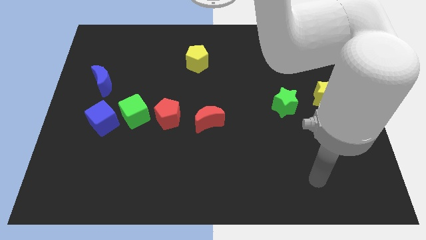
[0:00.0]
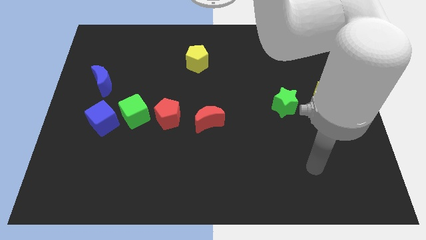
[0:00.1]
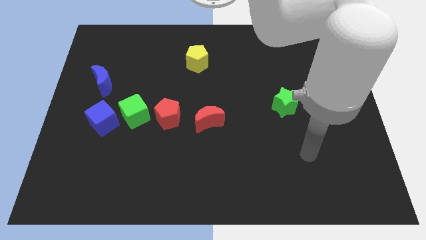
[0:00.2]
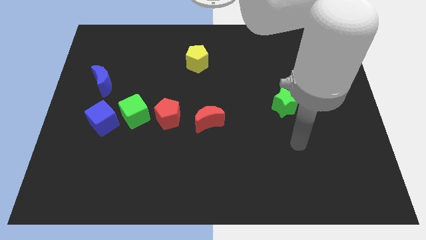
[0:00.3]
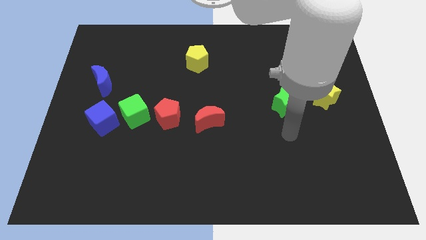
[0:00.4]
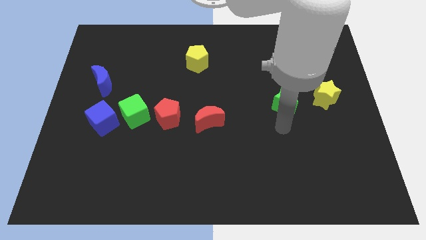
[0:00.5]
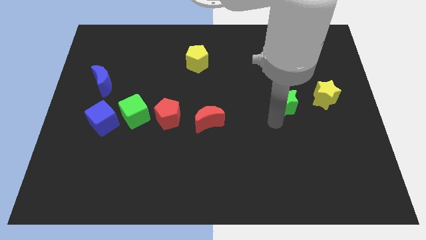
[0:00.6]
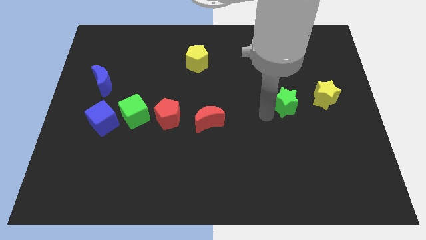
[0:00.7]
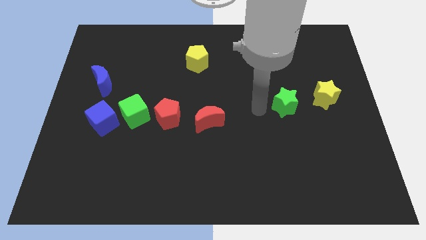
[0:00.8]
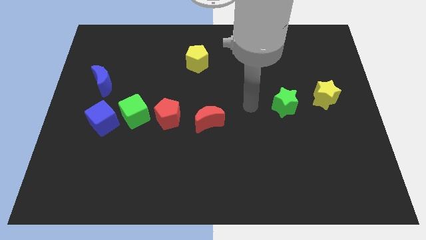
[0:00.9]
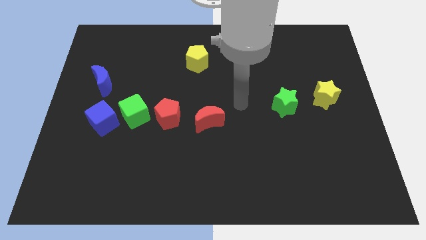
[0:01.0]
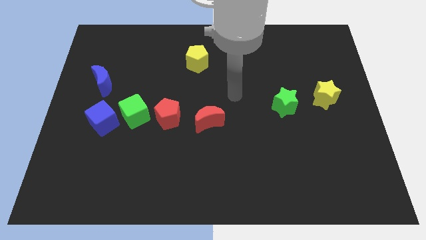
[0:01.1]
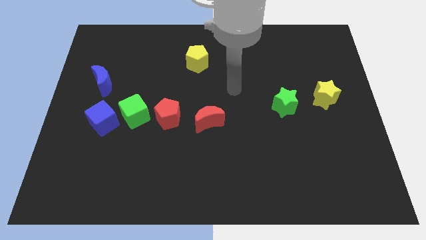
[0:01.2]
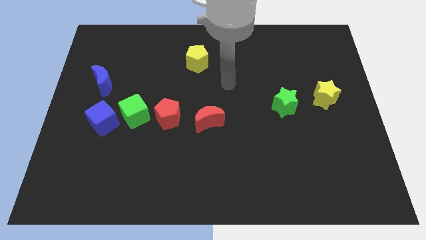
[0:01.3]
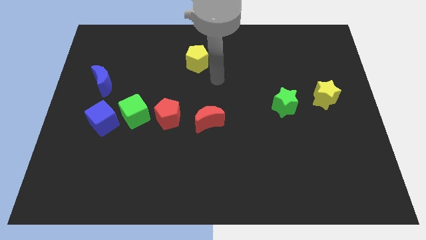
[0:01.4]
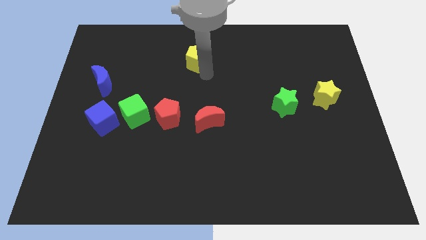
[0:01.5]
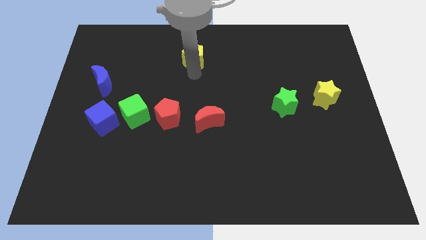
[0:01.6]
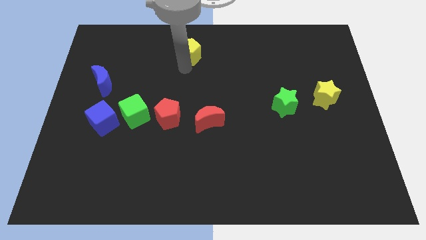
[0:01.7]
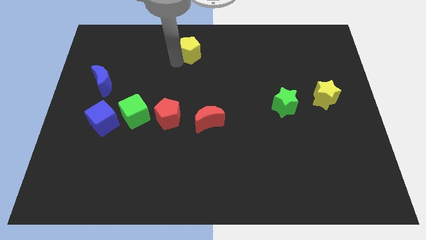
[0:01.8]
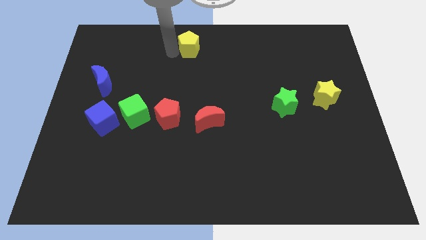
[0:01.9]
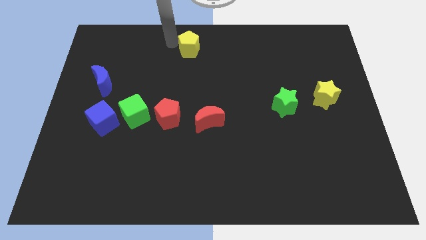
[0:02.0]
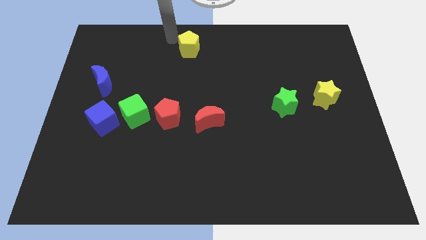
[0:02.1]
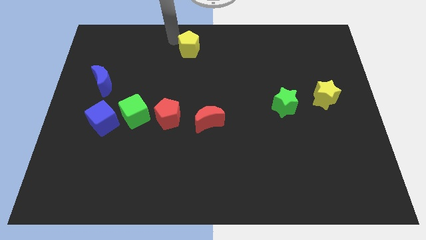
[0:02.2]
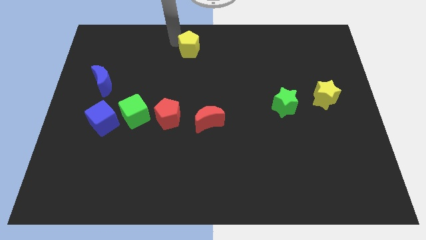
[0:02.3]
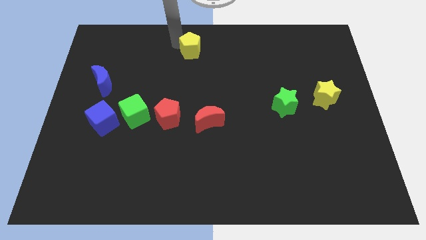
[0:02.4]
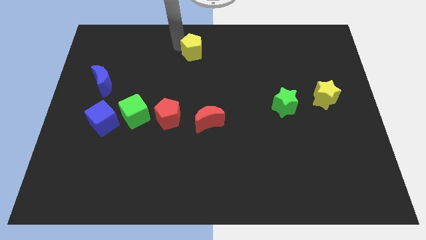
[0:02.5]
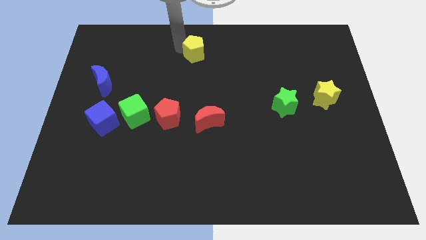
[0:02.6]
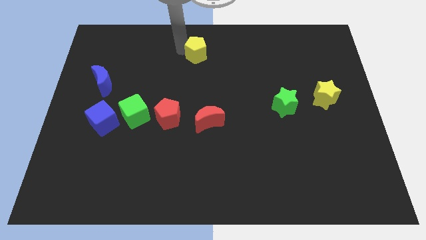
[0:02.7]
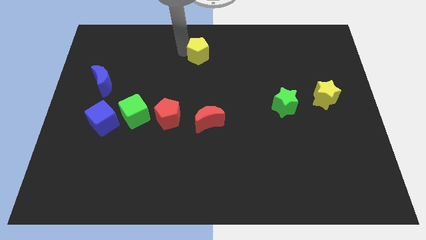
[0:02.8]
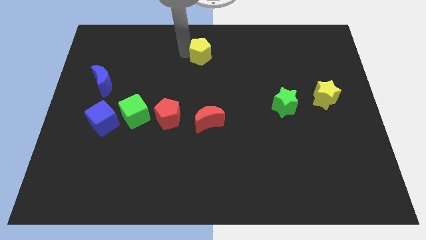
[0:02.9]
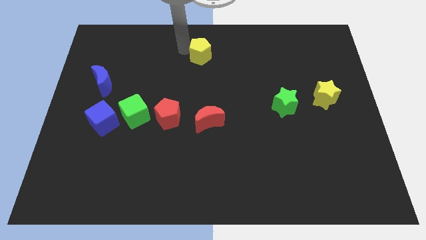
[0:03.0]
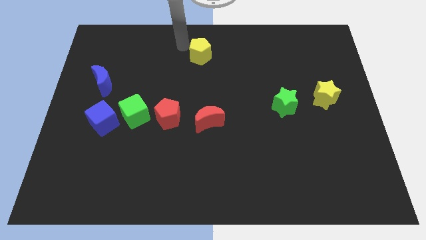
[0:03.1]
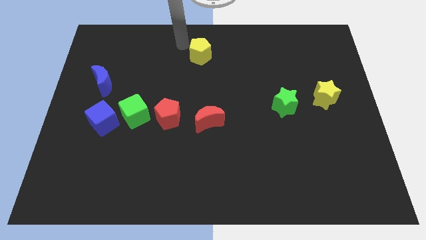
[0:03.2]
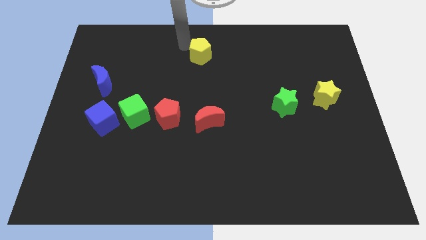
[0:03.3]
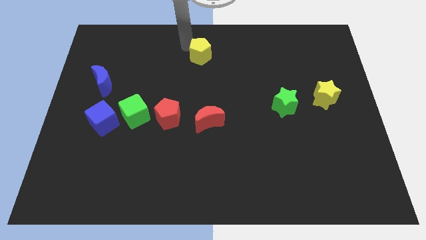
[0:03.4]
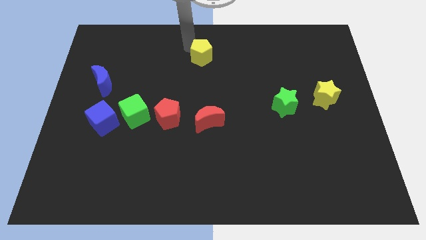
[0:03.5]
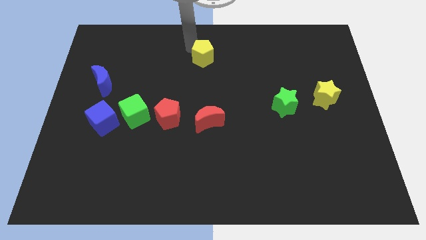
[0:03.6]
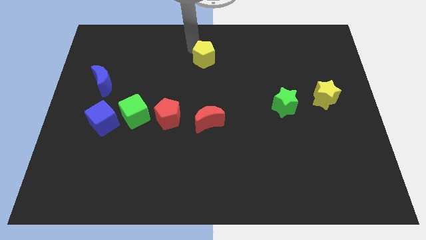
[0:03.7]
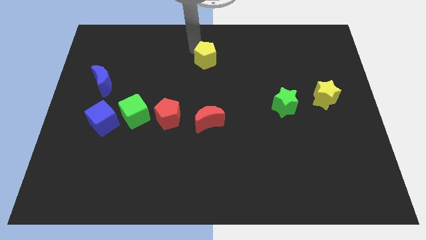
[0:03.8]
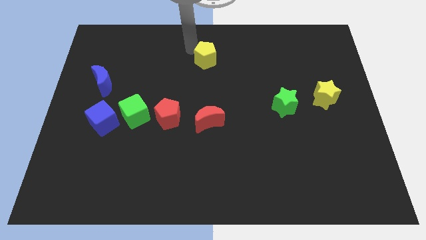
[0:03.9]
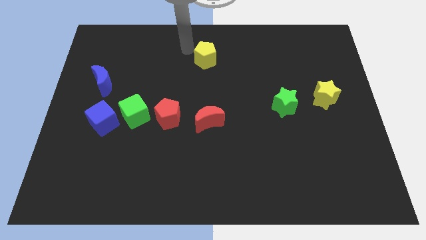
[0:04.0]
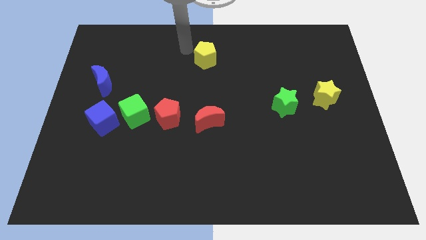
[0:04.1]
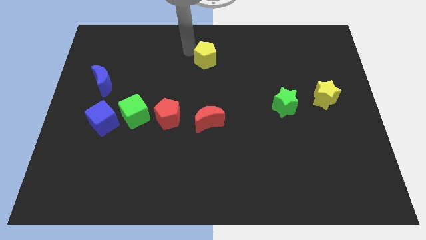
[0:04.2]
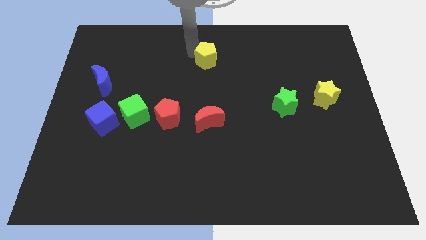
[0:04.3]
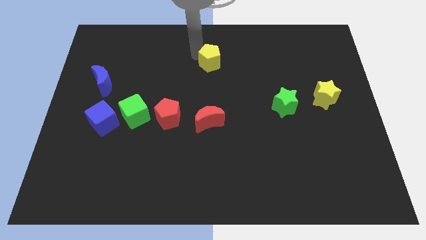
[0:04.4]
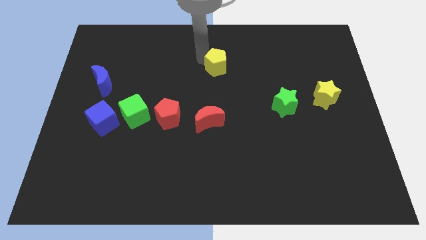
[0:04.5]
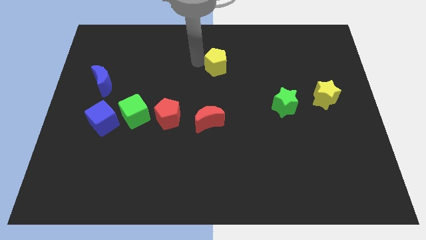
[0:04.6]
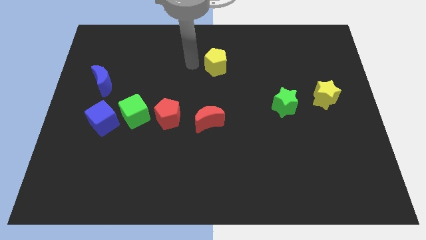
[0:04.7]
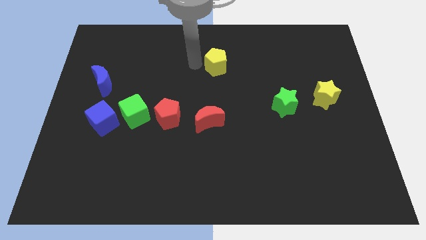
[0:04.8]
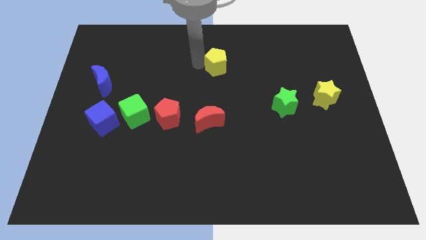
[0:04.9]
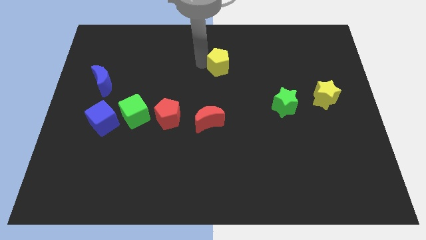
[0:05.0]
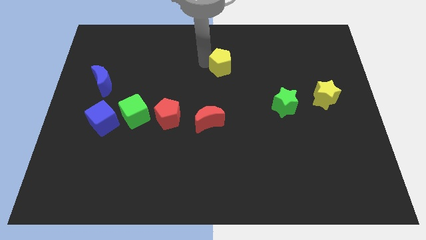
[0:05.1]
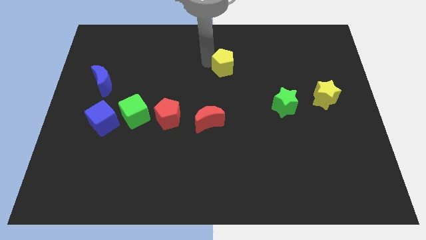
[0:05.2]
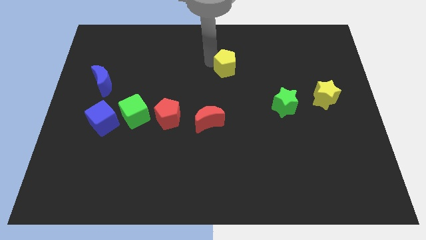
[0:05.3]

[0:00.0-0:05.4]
slide the yellow pentagon right slightly

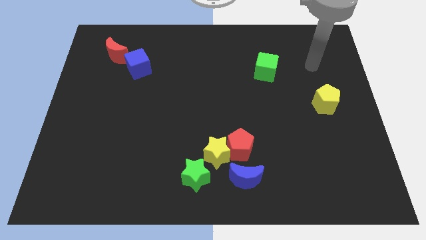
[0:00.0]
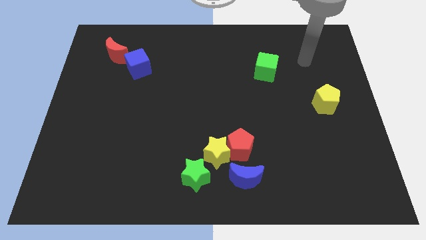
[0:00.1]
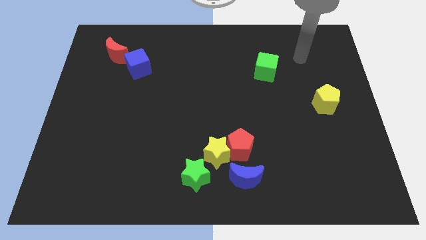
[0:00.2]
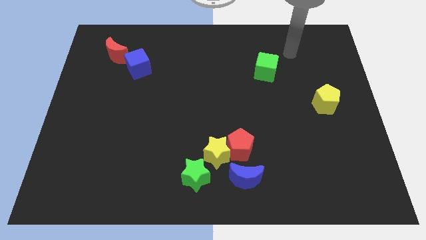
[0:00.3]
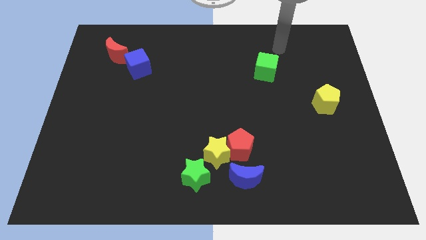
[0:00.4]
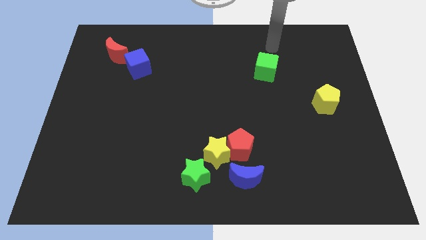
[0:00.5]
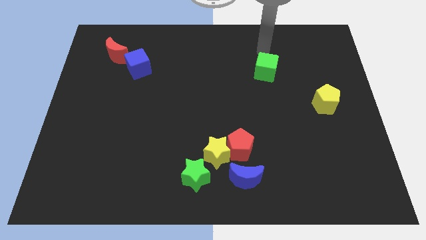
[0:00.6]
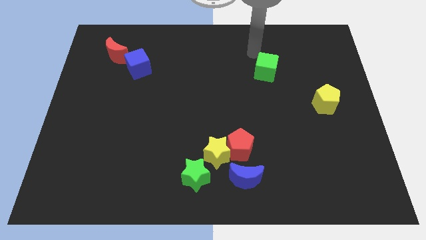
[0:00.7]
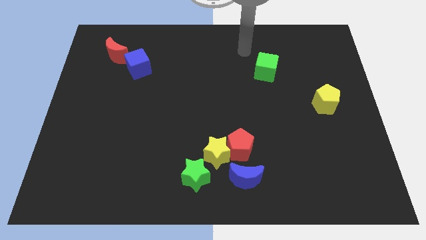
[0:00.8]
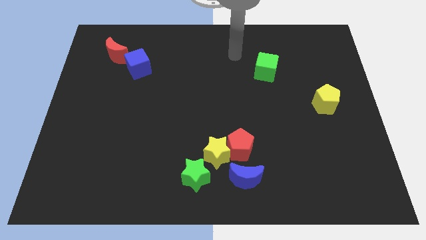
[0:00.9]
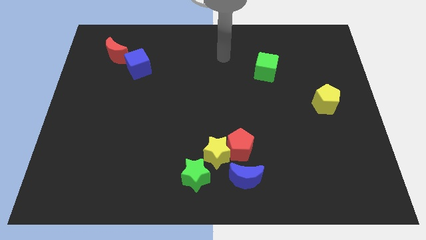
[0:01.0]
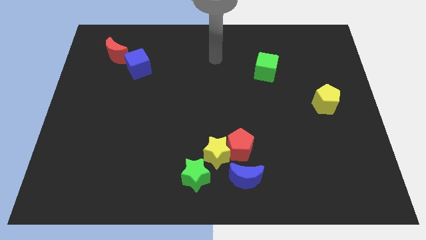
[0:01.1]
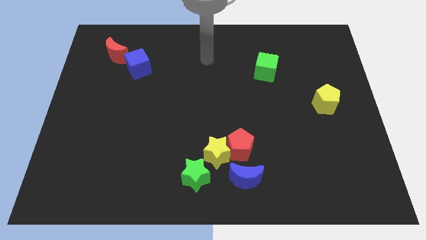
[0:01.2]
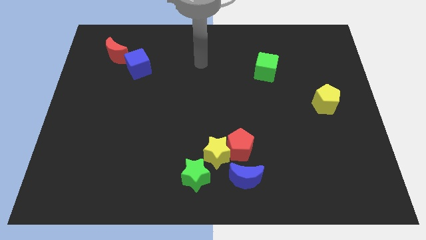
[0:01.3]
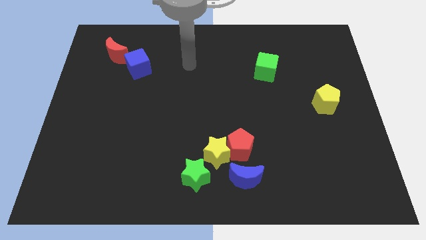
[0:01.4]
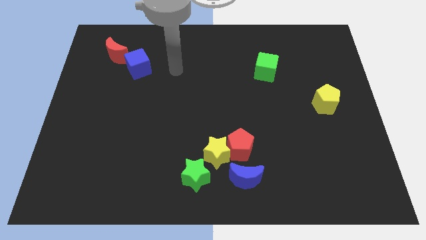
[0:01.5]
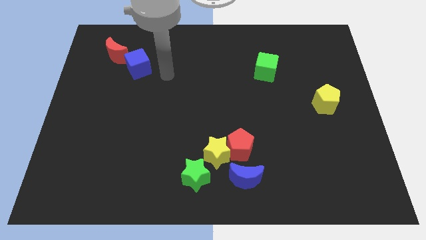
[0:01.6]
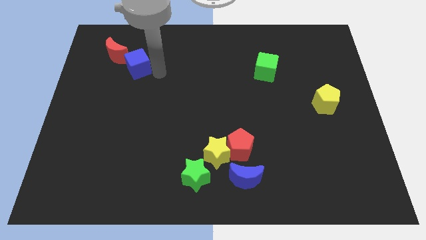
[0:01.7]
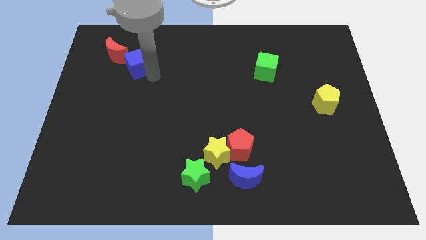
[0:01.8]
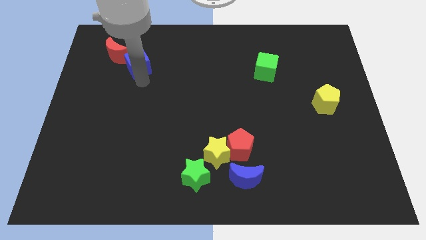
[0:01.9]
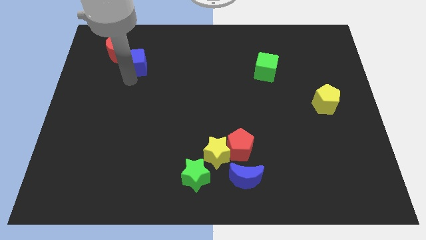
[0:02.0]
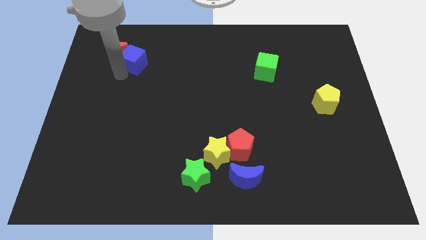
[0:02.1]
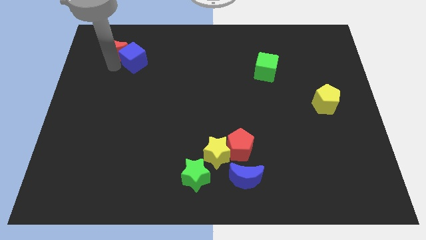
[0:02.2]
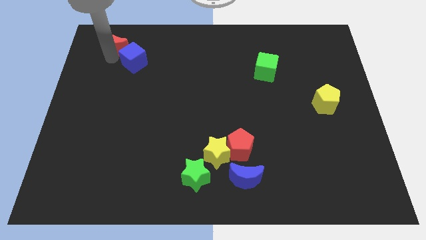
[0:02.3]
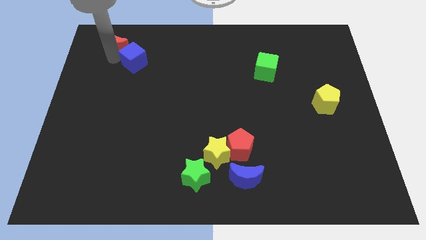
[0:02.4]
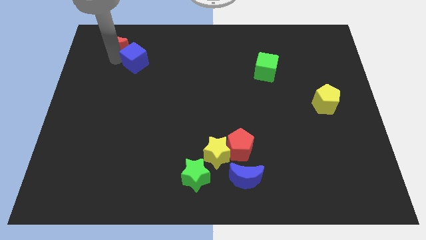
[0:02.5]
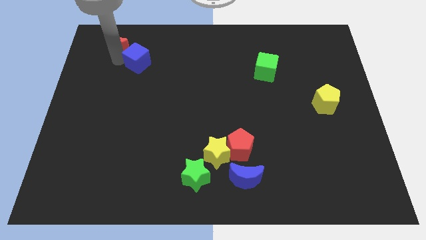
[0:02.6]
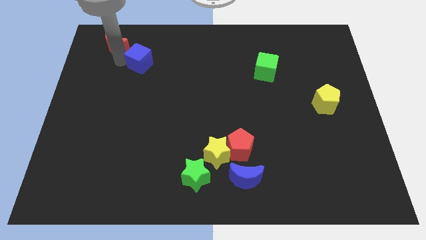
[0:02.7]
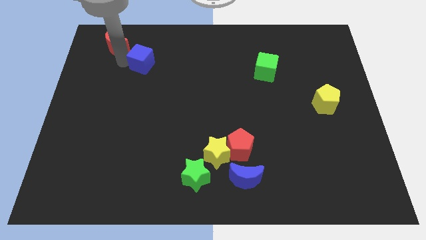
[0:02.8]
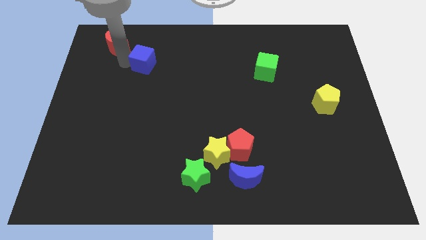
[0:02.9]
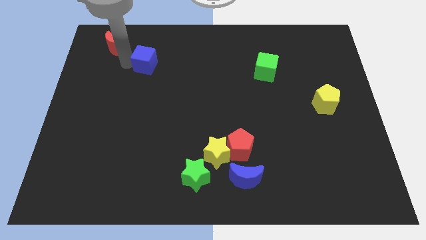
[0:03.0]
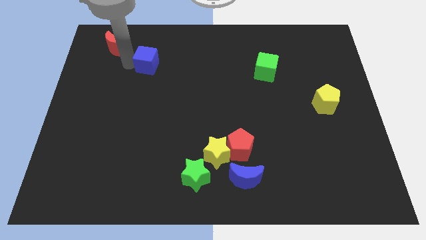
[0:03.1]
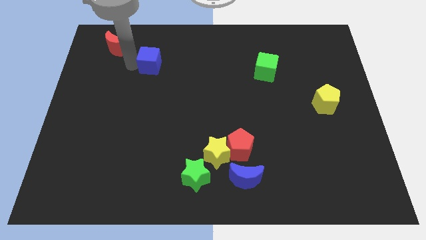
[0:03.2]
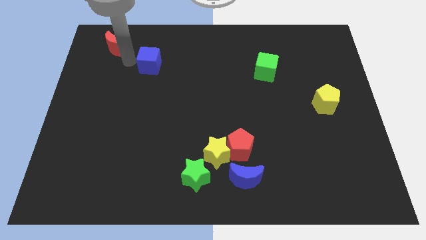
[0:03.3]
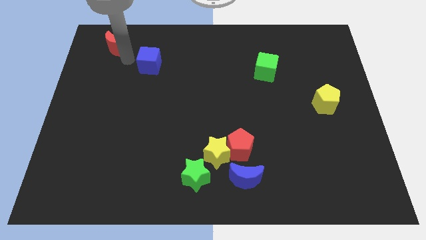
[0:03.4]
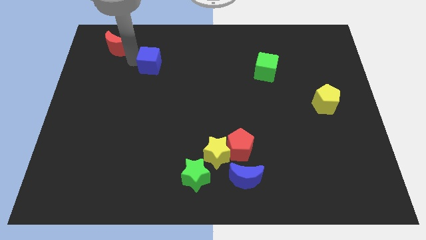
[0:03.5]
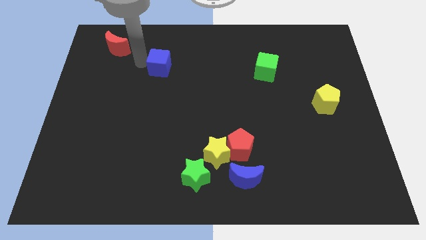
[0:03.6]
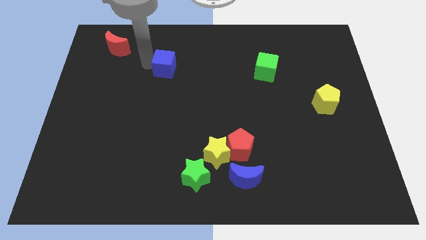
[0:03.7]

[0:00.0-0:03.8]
move the blue cube a bit right
